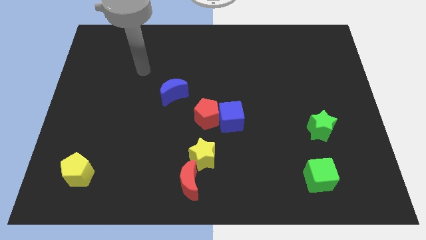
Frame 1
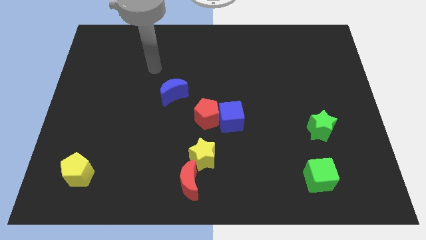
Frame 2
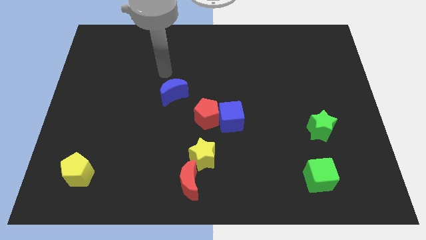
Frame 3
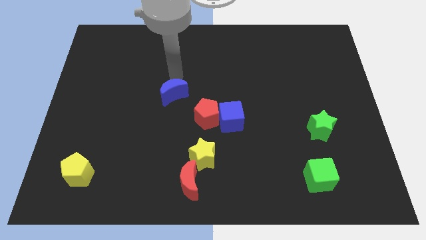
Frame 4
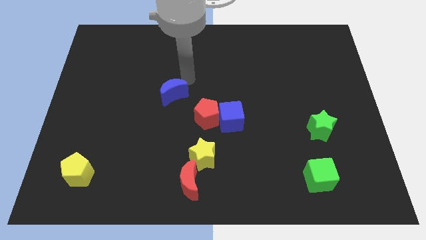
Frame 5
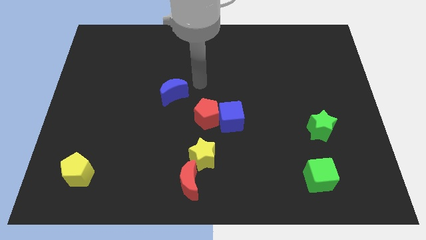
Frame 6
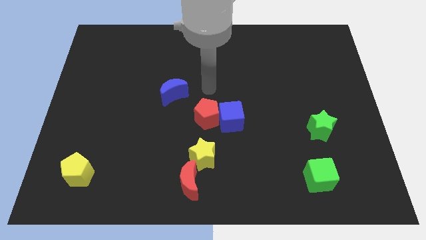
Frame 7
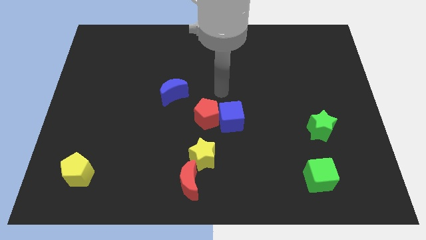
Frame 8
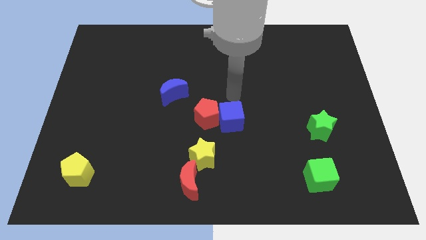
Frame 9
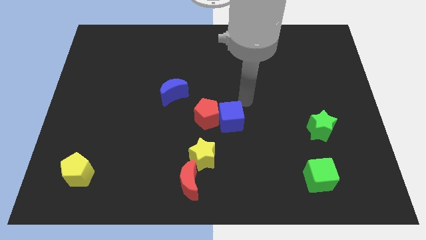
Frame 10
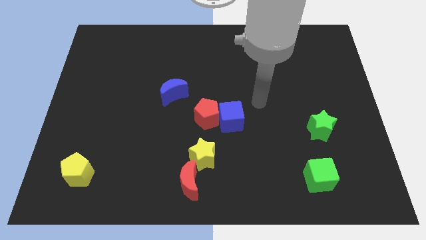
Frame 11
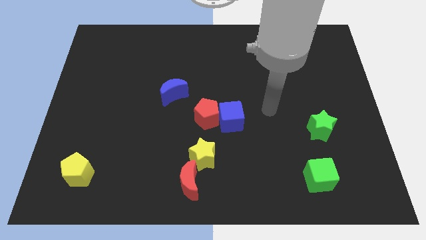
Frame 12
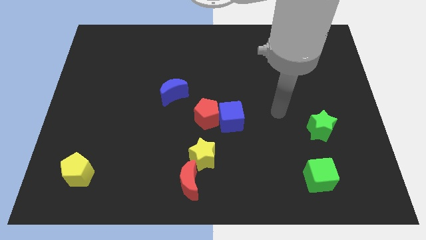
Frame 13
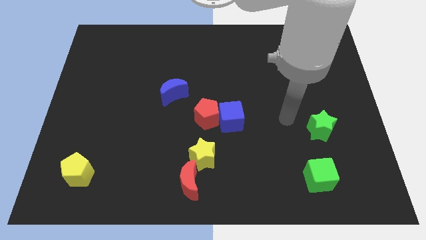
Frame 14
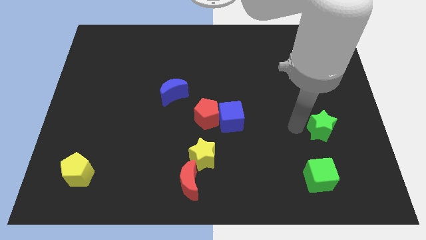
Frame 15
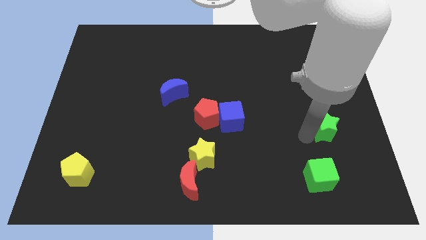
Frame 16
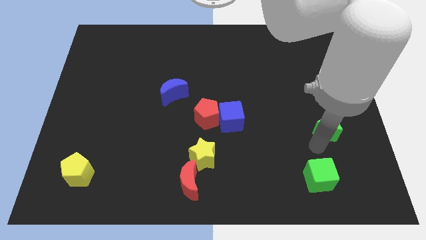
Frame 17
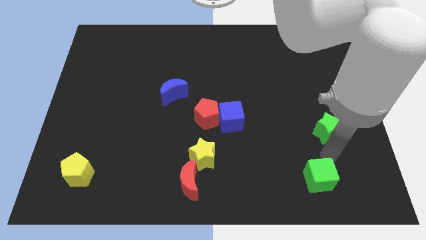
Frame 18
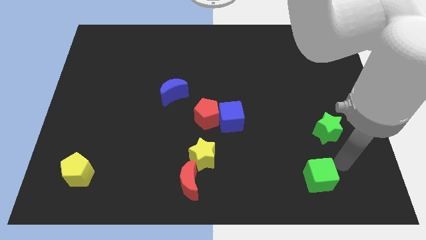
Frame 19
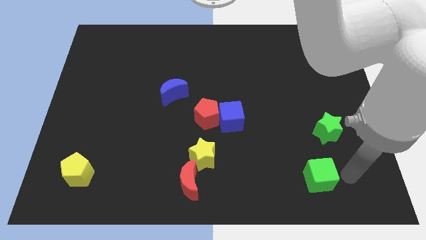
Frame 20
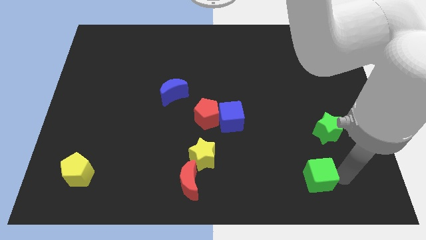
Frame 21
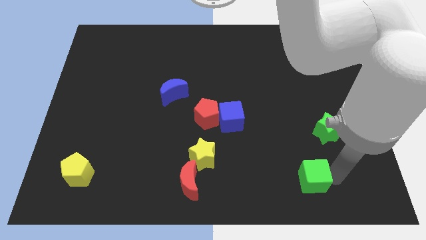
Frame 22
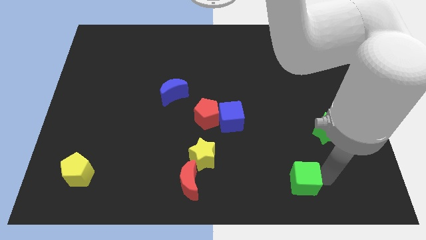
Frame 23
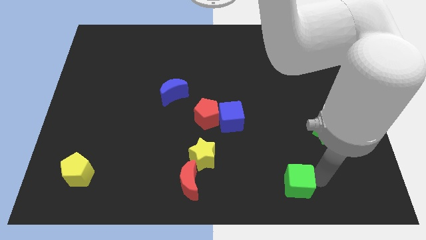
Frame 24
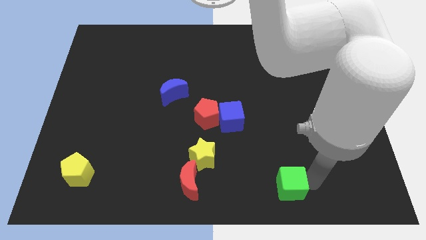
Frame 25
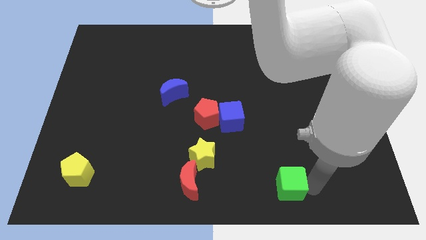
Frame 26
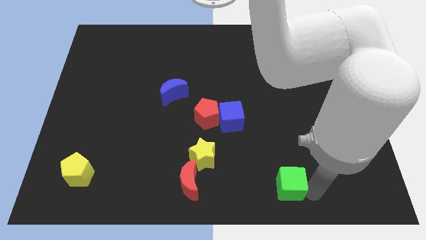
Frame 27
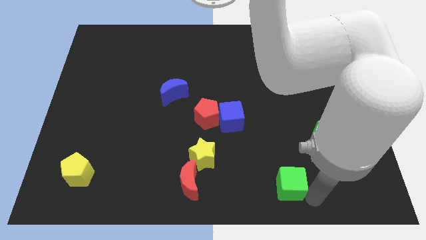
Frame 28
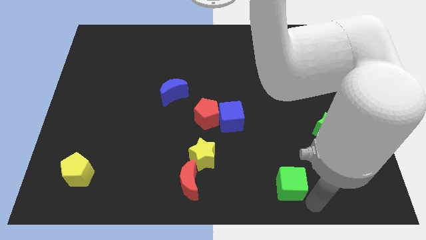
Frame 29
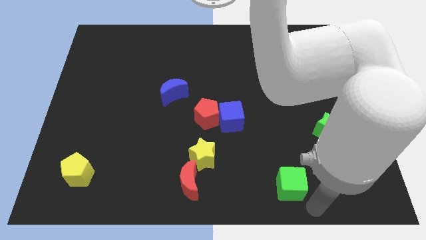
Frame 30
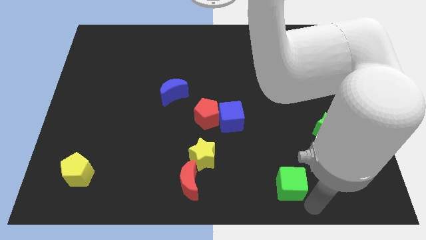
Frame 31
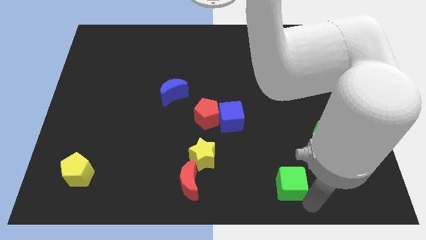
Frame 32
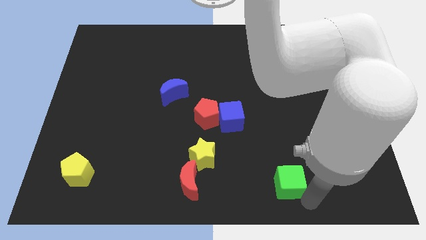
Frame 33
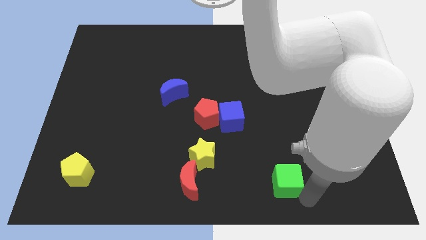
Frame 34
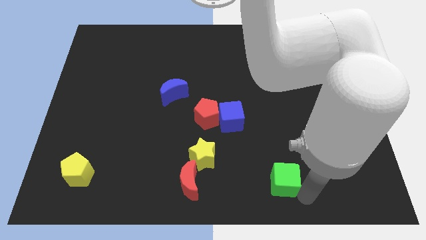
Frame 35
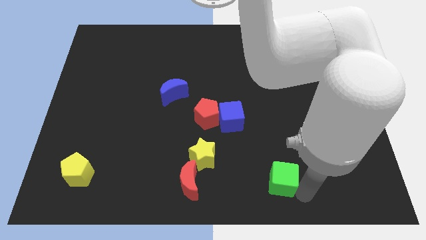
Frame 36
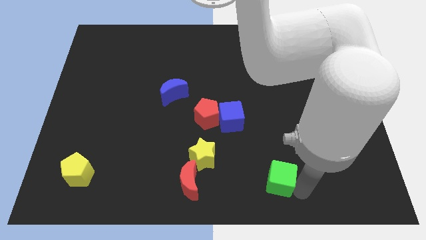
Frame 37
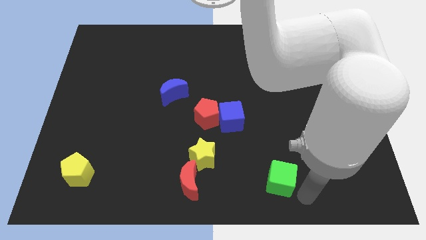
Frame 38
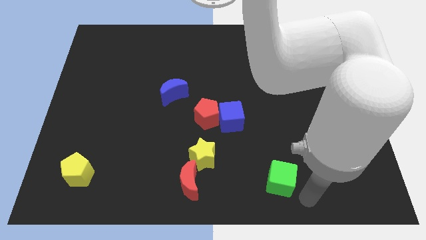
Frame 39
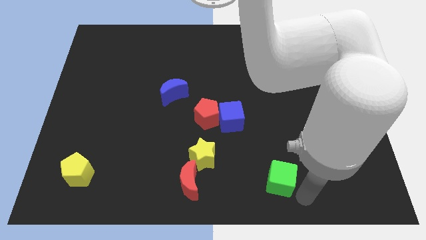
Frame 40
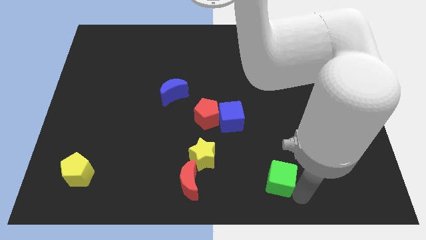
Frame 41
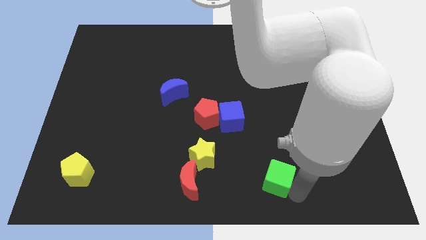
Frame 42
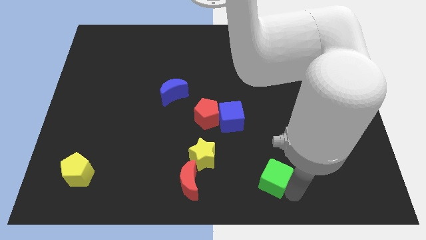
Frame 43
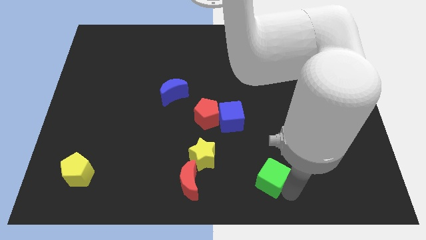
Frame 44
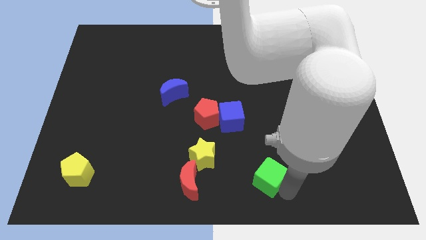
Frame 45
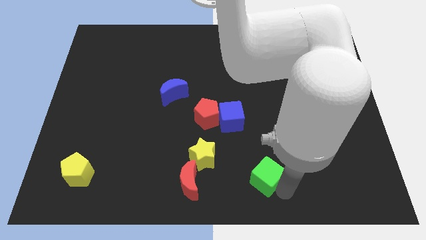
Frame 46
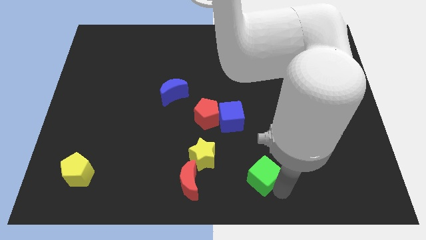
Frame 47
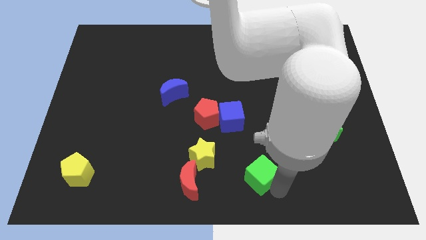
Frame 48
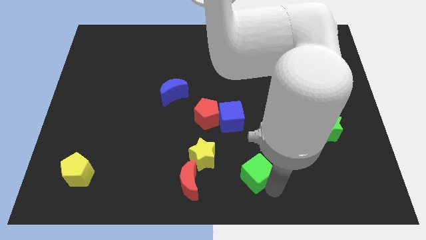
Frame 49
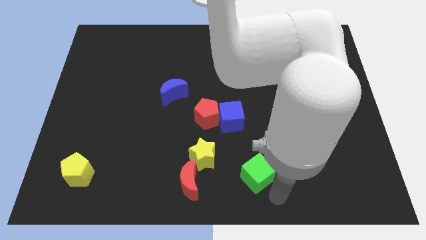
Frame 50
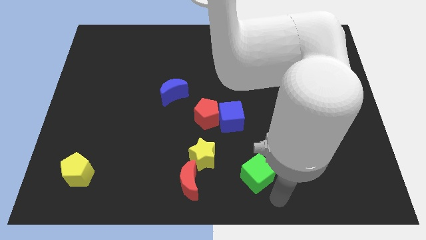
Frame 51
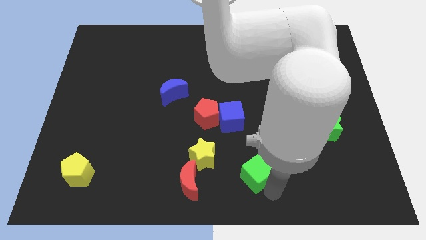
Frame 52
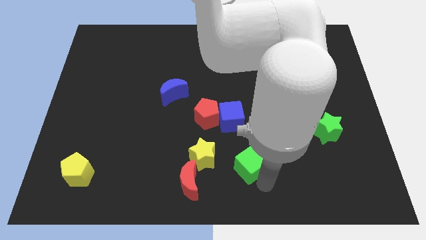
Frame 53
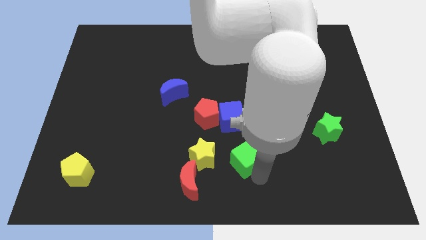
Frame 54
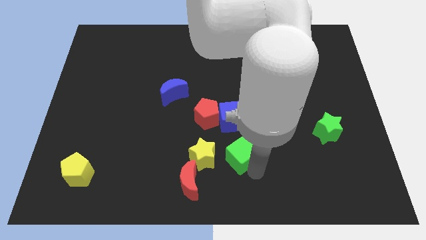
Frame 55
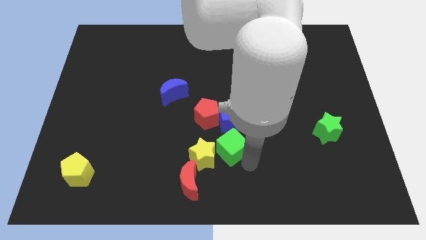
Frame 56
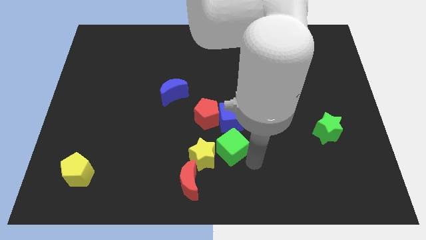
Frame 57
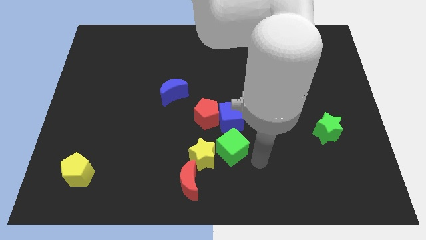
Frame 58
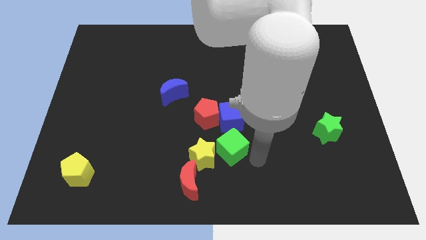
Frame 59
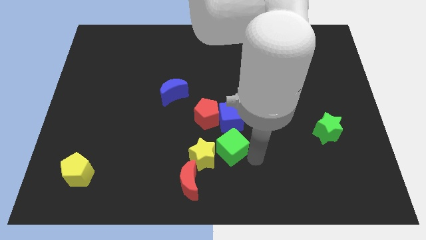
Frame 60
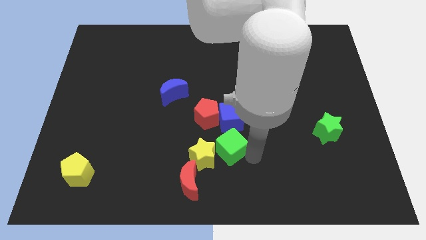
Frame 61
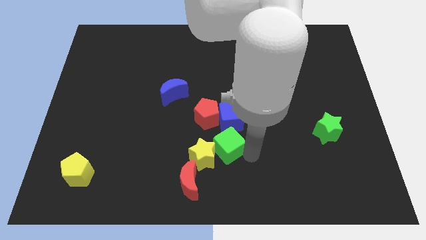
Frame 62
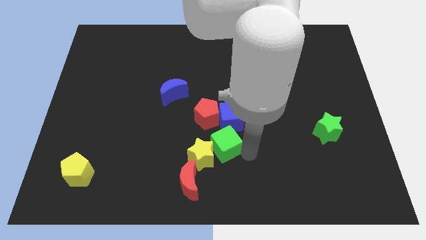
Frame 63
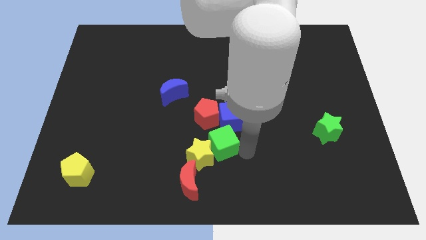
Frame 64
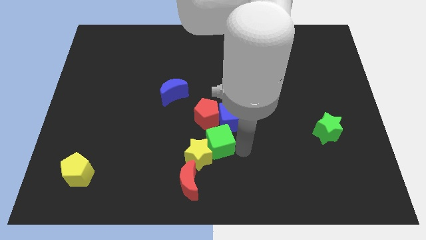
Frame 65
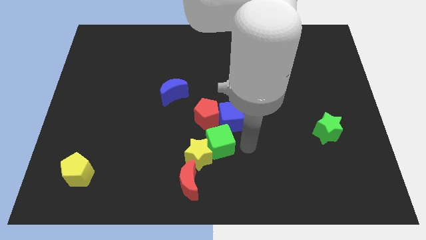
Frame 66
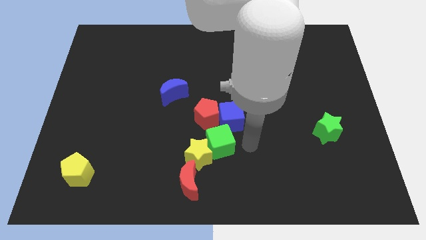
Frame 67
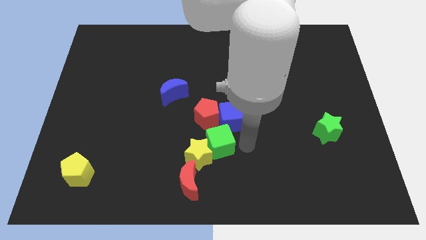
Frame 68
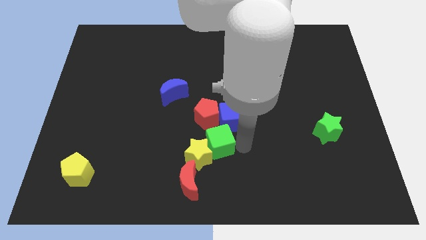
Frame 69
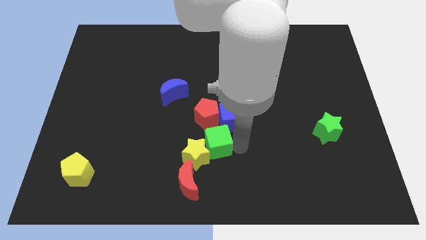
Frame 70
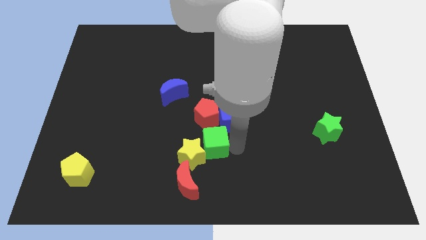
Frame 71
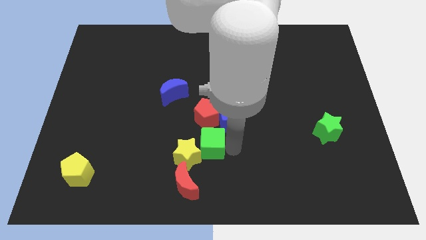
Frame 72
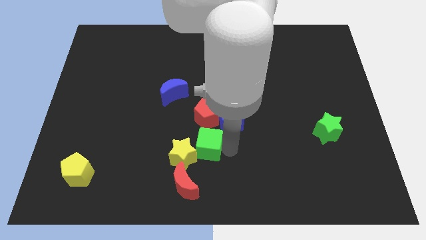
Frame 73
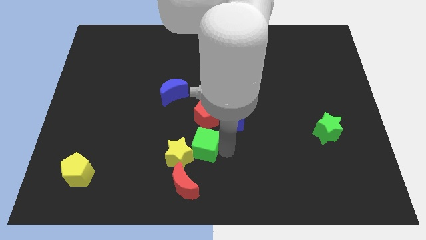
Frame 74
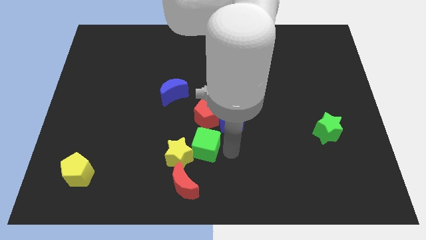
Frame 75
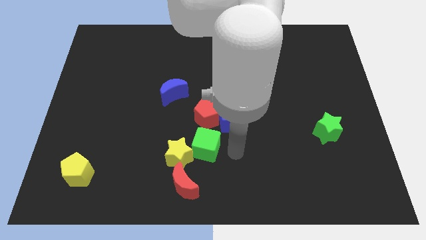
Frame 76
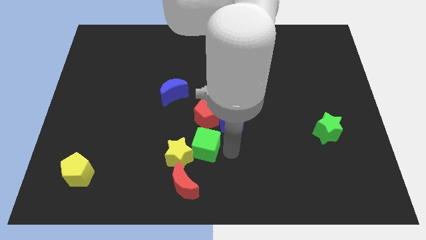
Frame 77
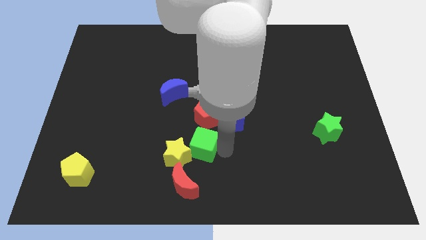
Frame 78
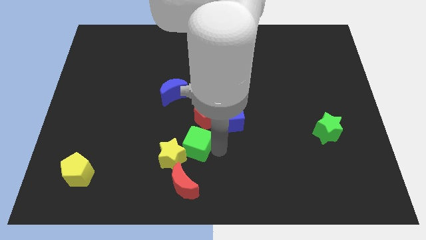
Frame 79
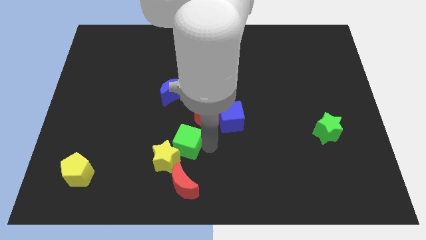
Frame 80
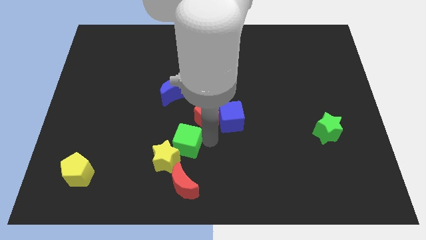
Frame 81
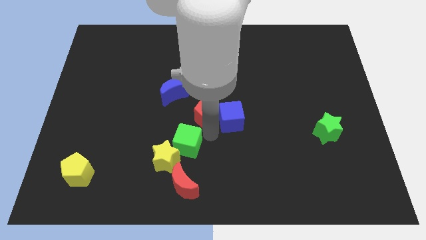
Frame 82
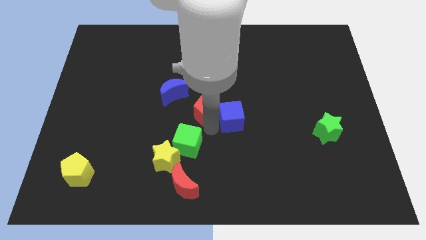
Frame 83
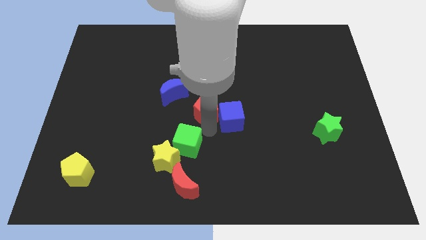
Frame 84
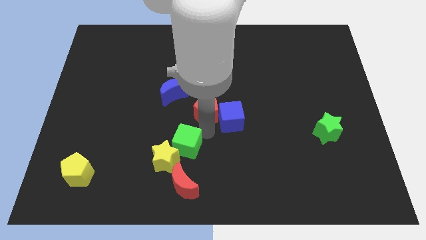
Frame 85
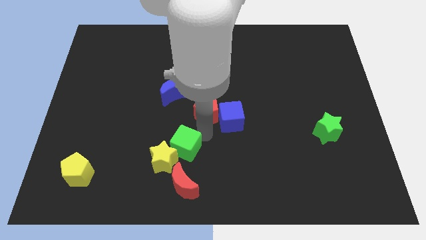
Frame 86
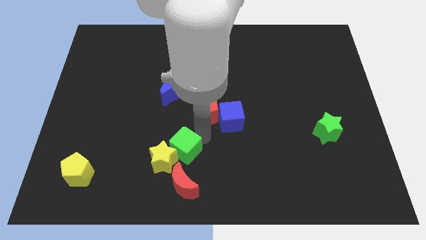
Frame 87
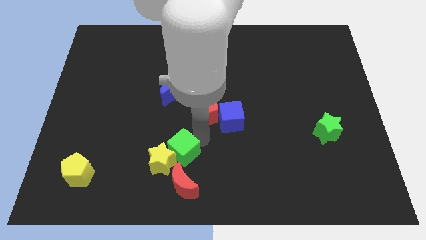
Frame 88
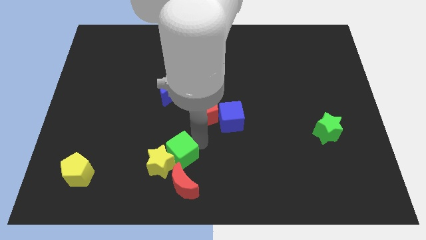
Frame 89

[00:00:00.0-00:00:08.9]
slide the green cube diagonally up and to the left of the red moon
